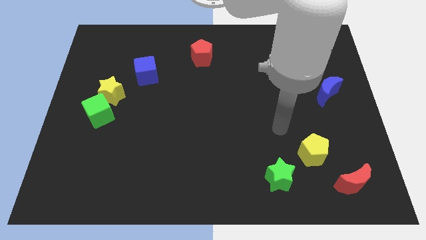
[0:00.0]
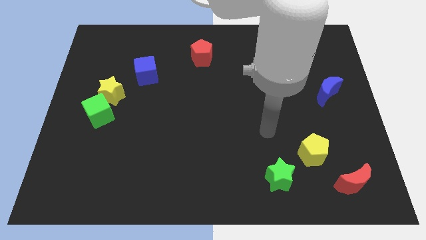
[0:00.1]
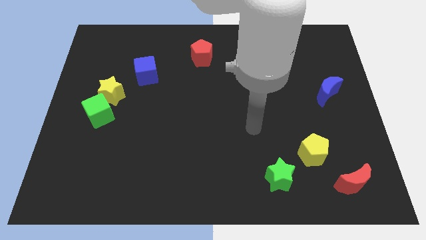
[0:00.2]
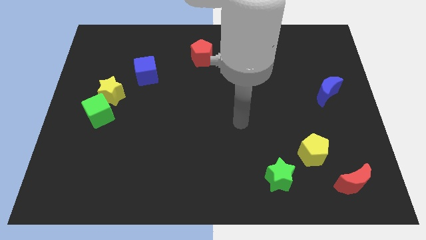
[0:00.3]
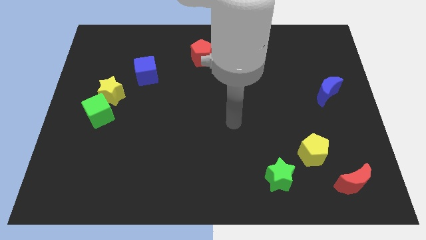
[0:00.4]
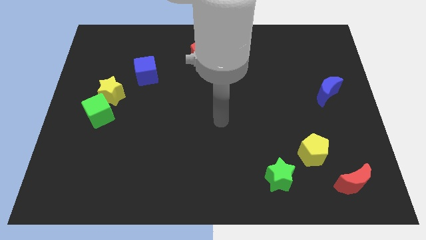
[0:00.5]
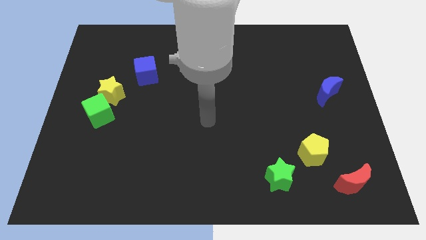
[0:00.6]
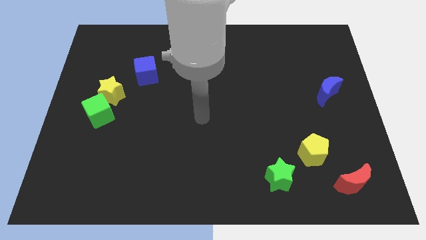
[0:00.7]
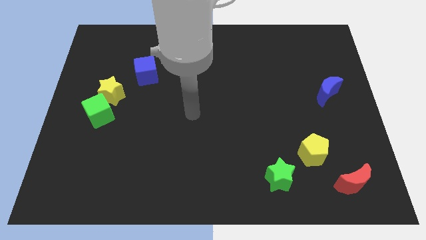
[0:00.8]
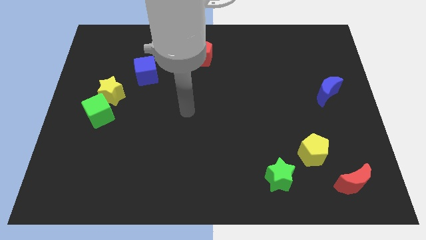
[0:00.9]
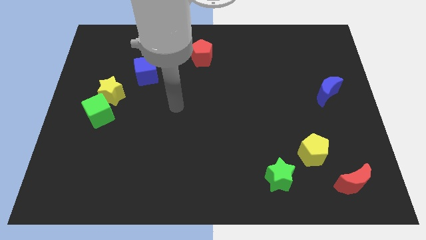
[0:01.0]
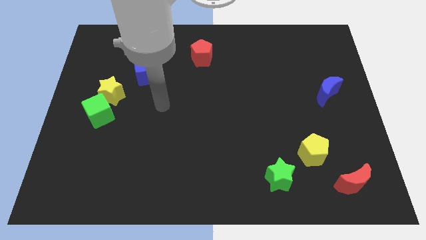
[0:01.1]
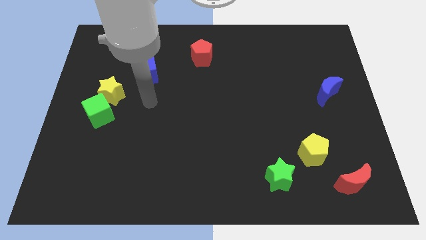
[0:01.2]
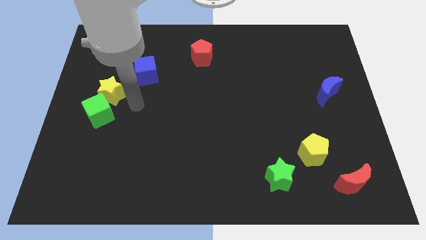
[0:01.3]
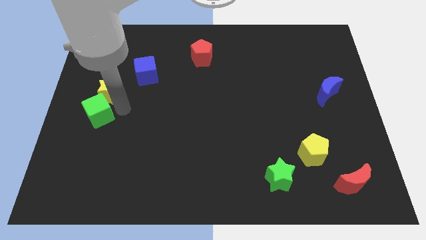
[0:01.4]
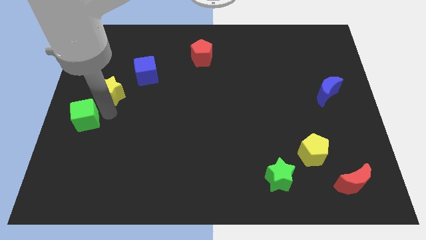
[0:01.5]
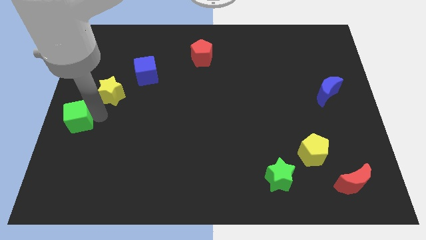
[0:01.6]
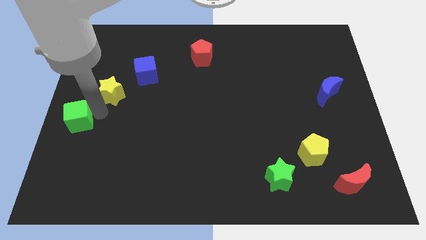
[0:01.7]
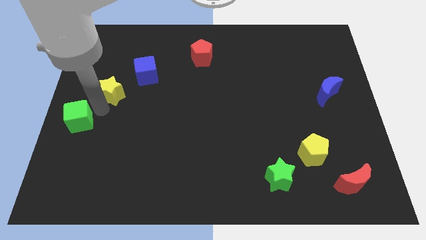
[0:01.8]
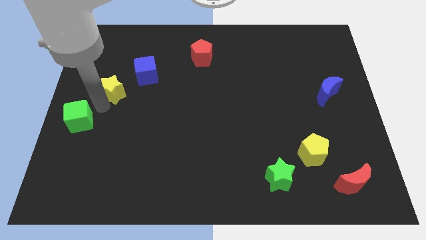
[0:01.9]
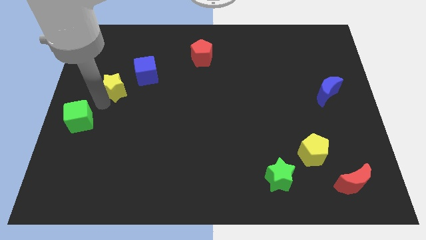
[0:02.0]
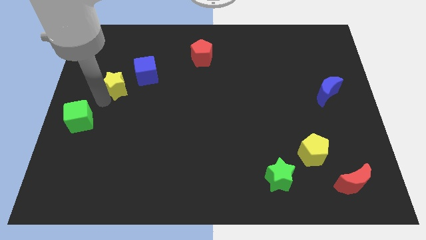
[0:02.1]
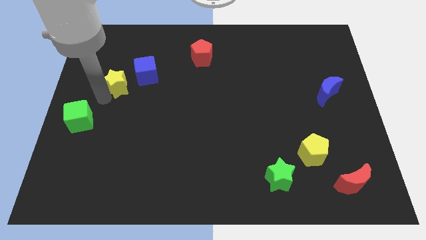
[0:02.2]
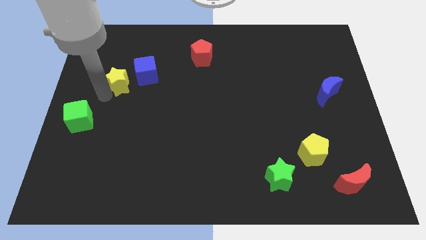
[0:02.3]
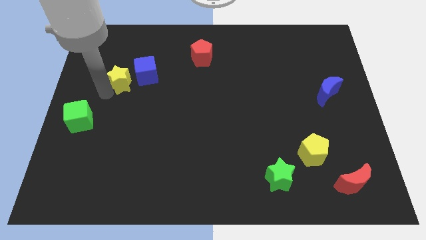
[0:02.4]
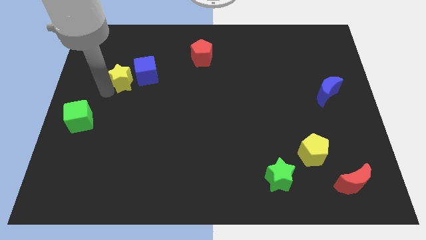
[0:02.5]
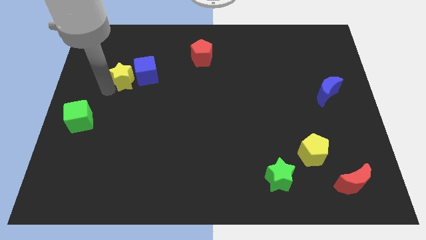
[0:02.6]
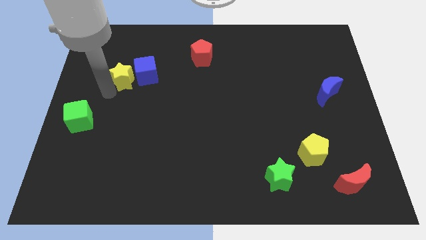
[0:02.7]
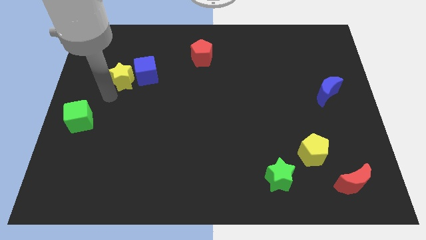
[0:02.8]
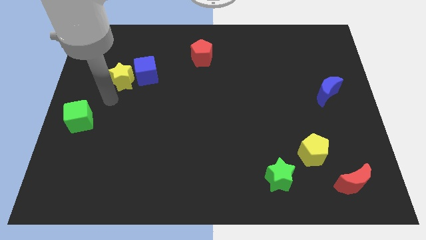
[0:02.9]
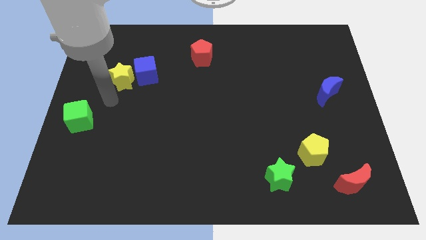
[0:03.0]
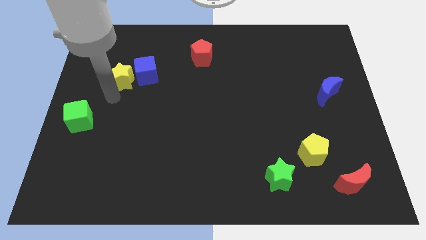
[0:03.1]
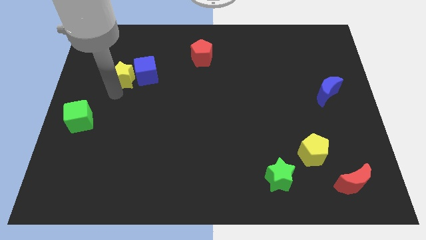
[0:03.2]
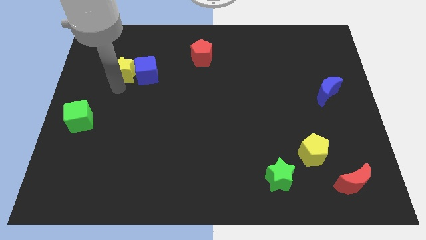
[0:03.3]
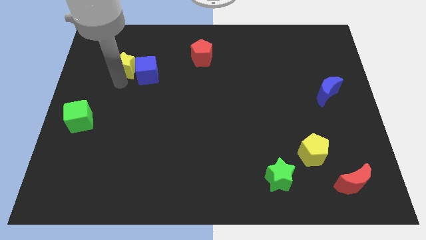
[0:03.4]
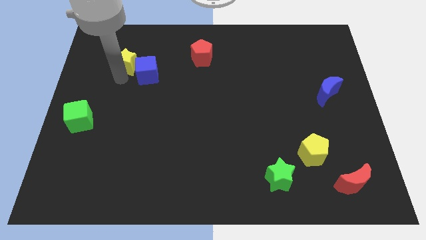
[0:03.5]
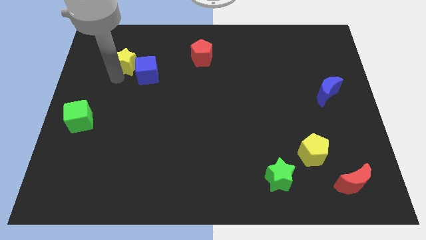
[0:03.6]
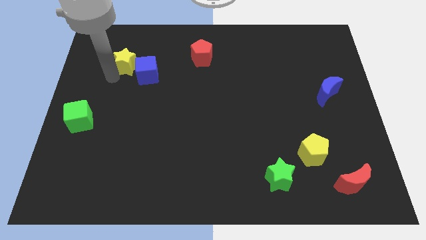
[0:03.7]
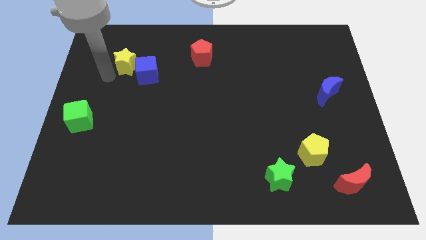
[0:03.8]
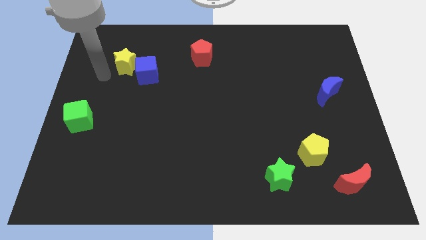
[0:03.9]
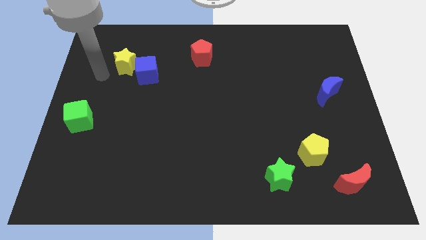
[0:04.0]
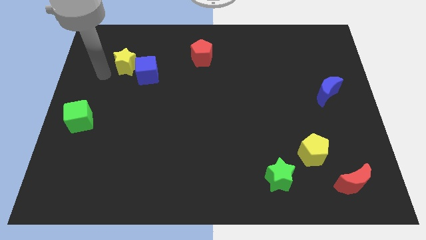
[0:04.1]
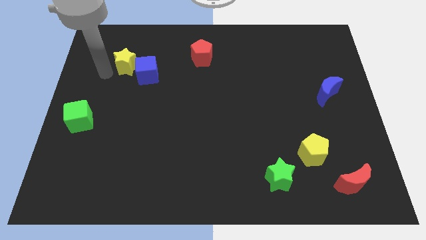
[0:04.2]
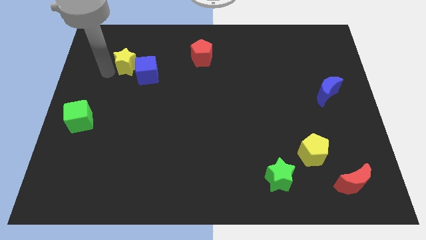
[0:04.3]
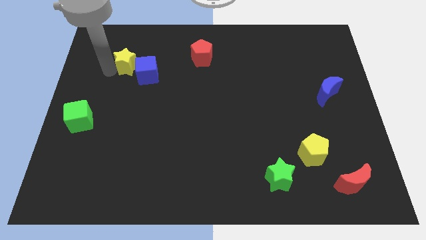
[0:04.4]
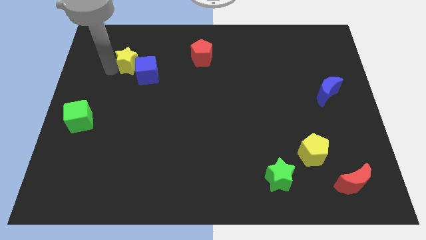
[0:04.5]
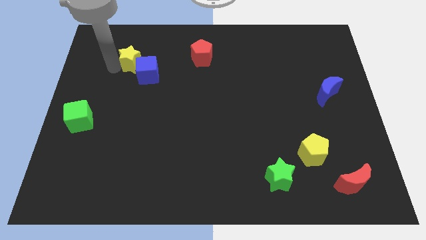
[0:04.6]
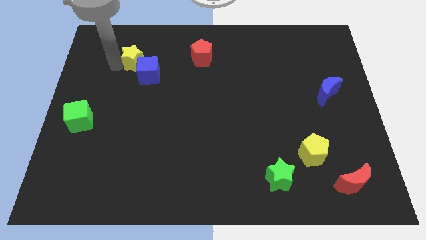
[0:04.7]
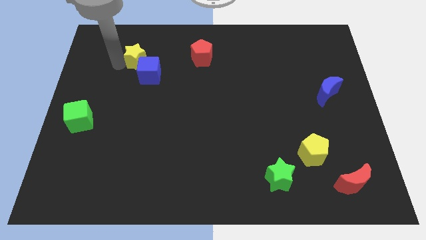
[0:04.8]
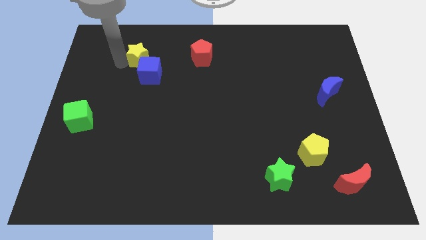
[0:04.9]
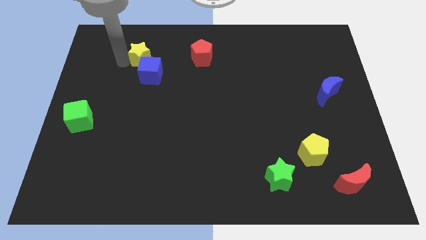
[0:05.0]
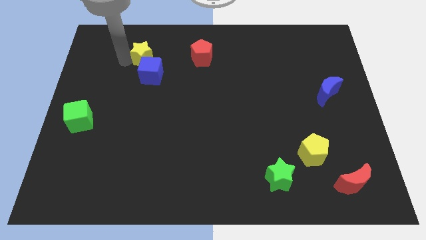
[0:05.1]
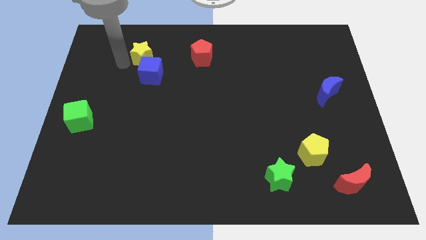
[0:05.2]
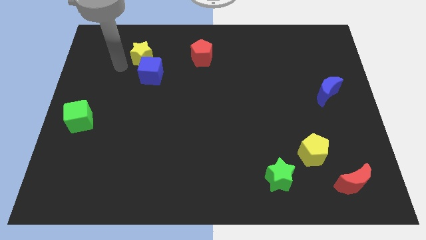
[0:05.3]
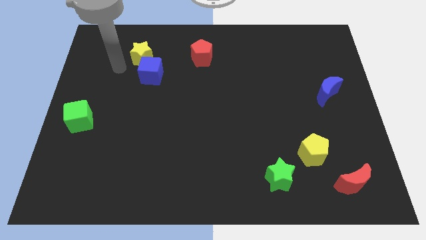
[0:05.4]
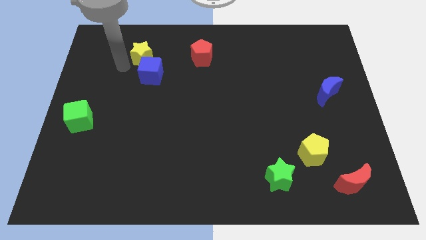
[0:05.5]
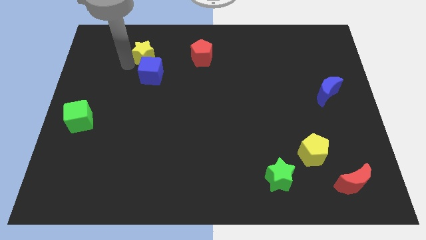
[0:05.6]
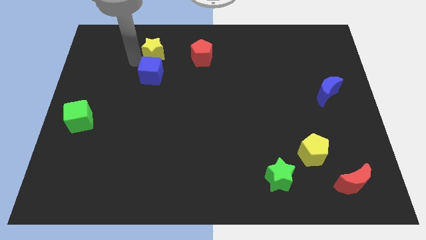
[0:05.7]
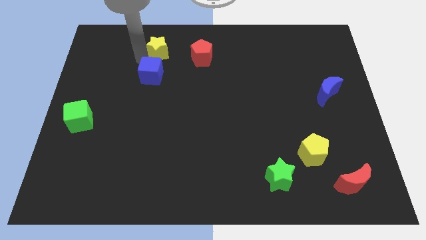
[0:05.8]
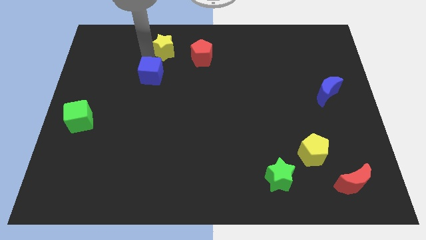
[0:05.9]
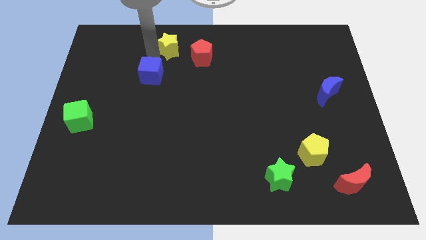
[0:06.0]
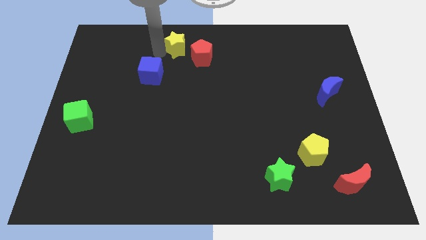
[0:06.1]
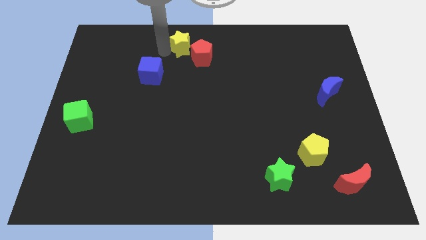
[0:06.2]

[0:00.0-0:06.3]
move the yellow star to the top side

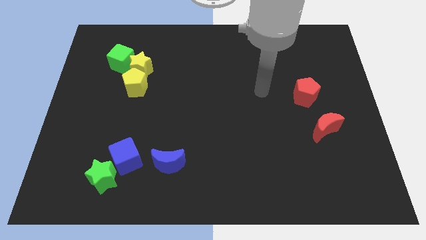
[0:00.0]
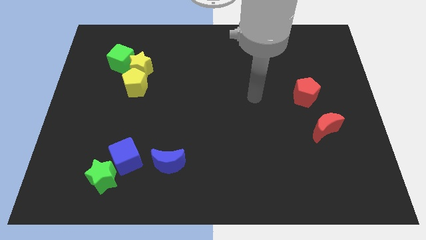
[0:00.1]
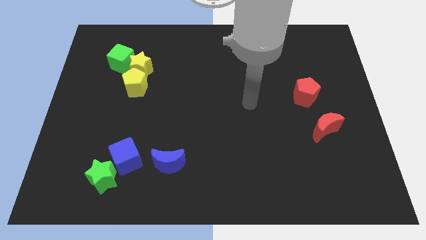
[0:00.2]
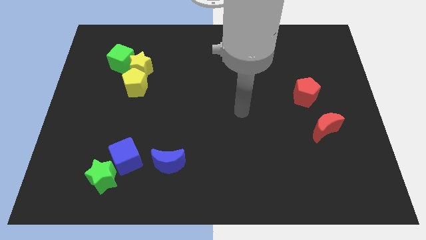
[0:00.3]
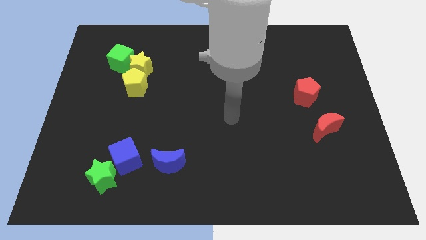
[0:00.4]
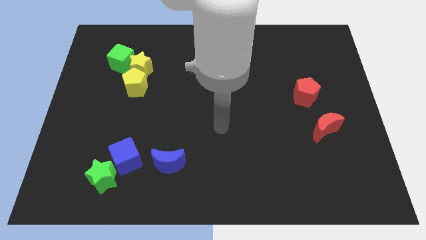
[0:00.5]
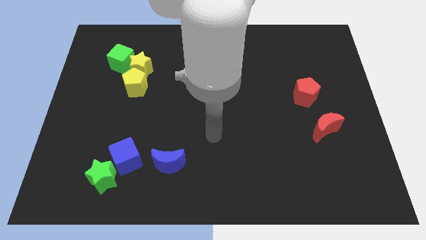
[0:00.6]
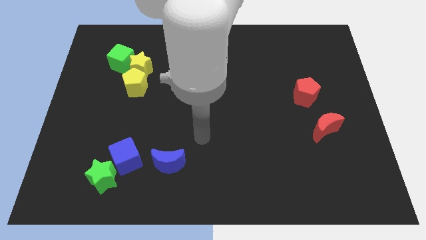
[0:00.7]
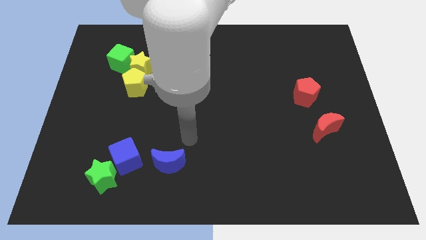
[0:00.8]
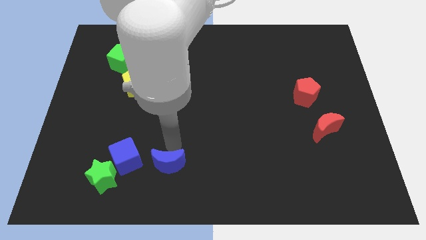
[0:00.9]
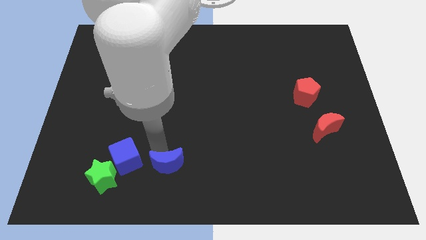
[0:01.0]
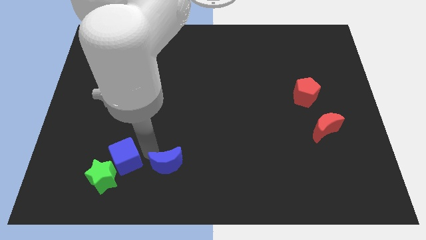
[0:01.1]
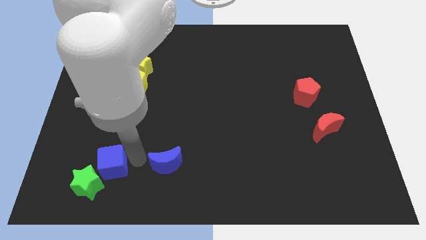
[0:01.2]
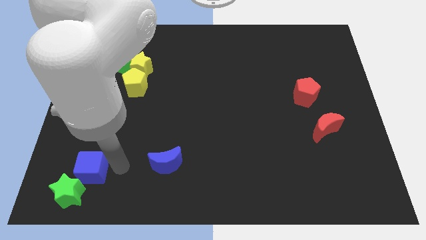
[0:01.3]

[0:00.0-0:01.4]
slide the green star to the lower left corner
